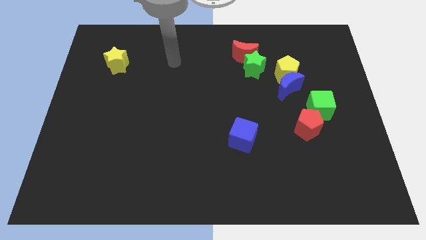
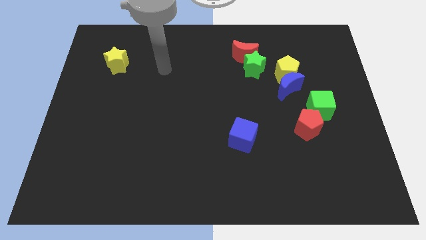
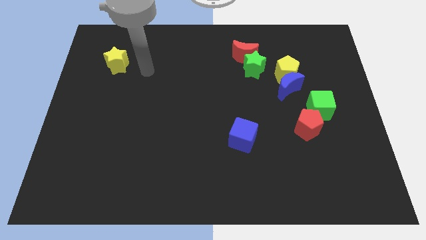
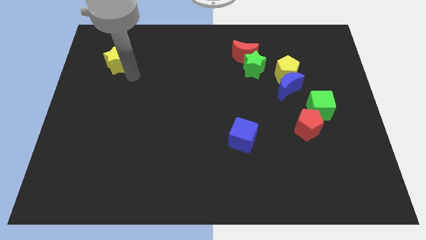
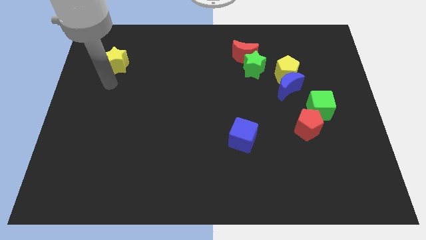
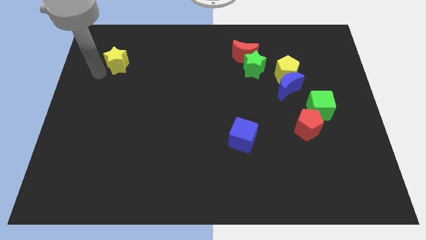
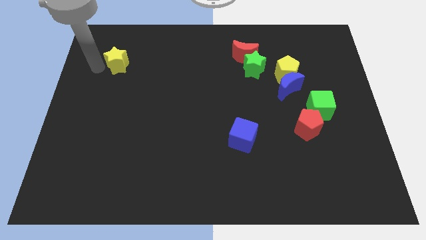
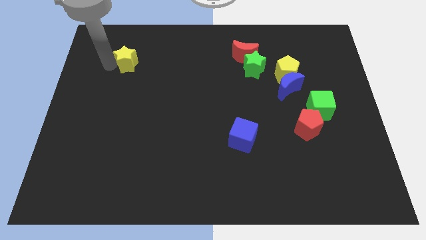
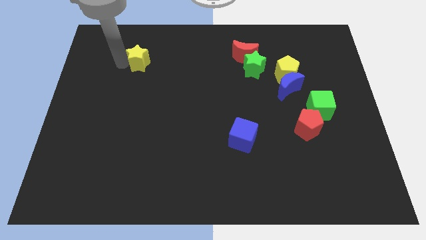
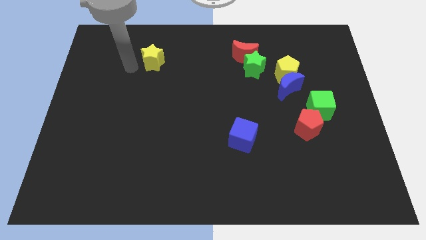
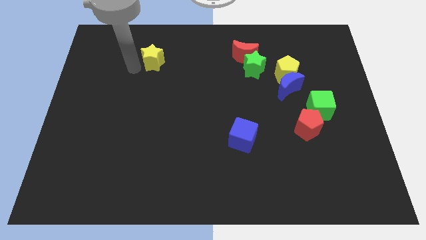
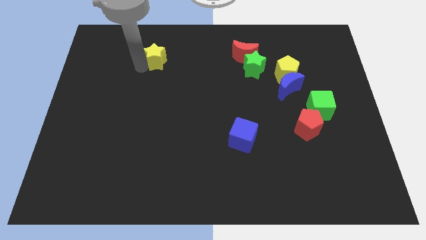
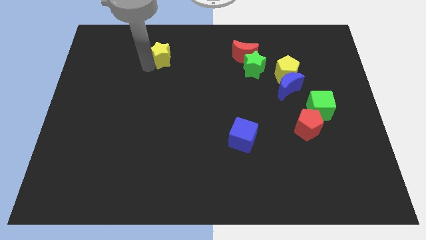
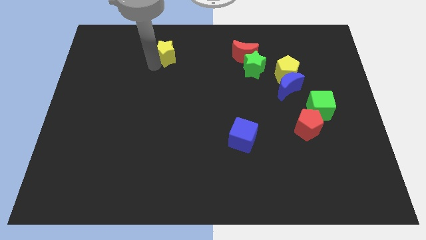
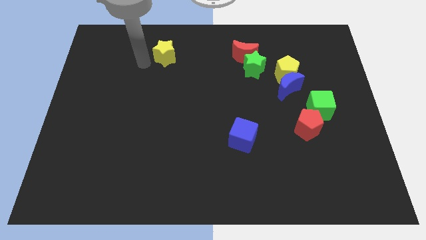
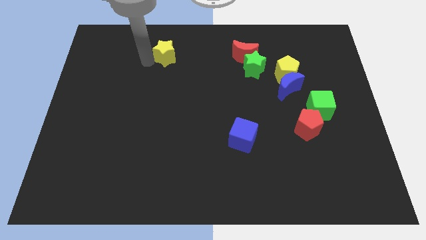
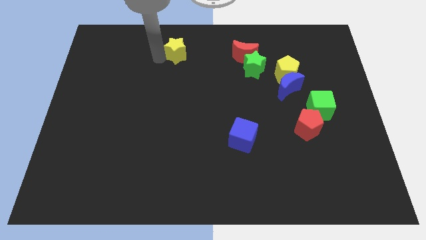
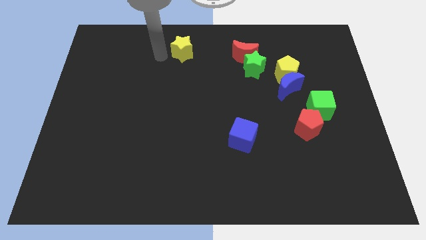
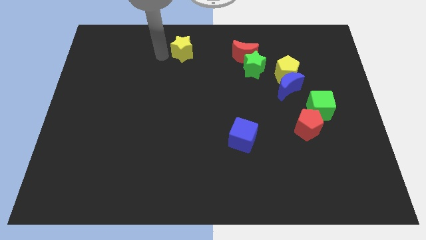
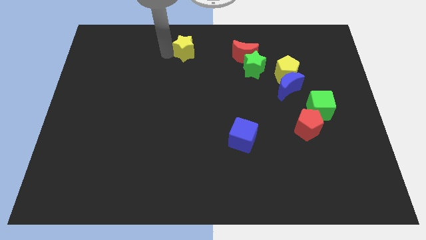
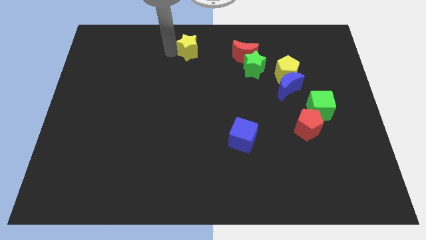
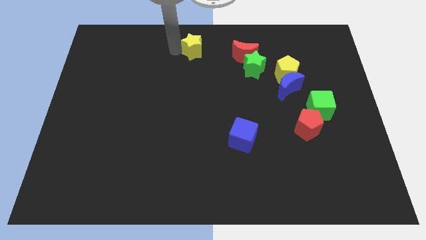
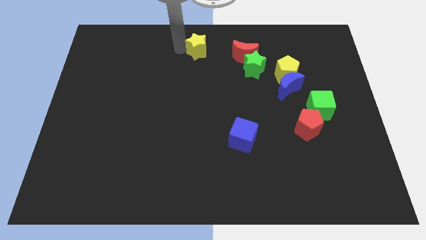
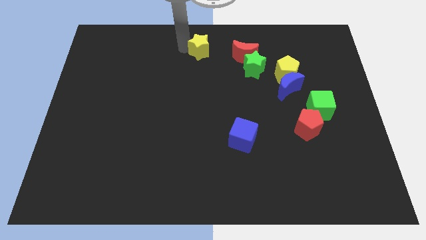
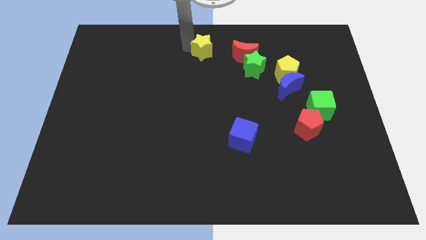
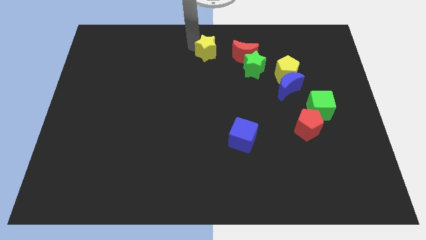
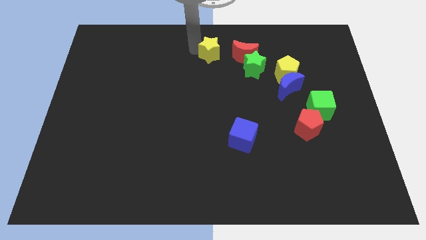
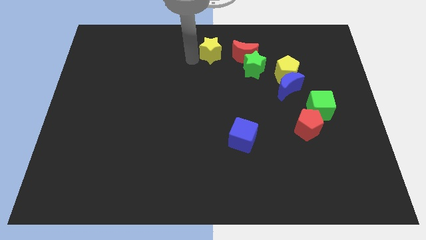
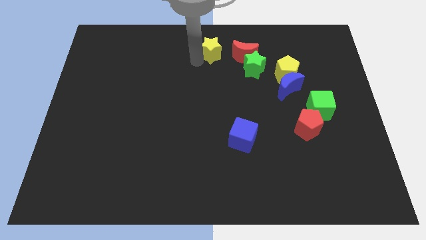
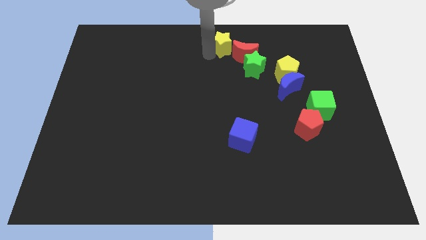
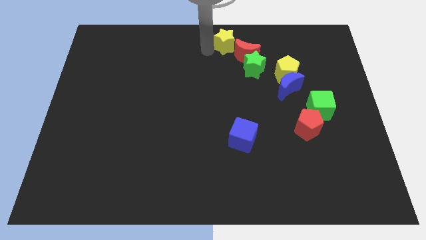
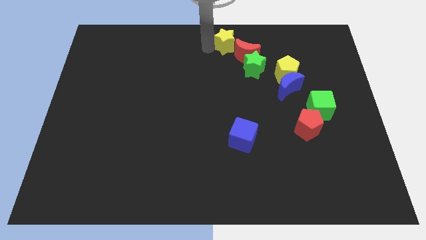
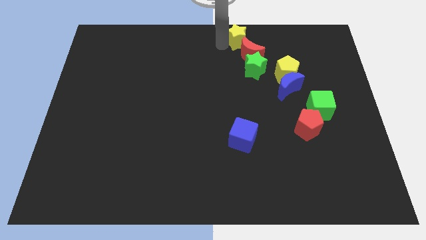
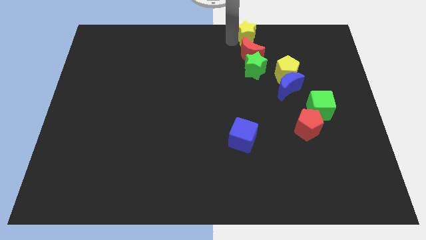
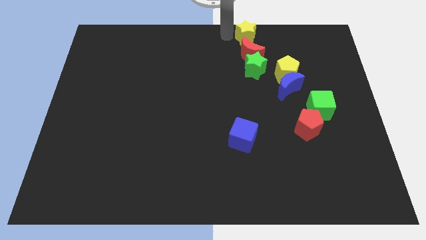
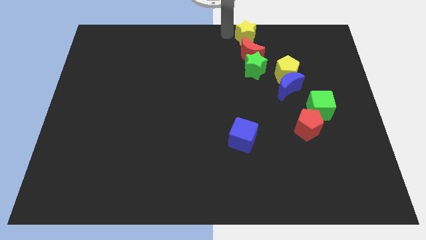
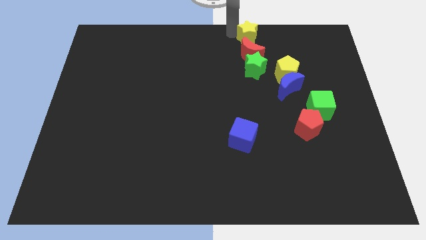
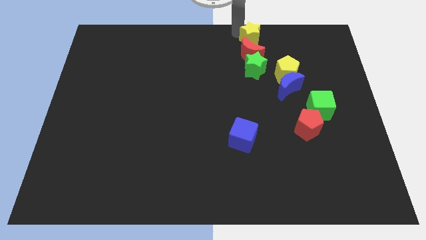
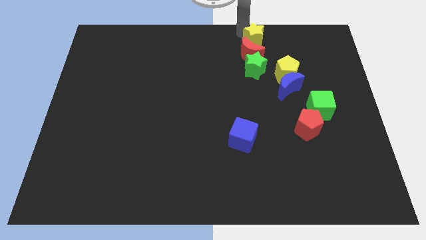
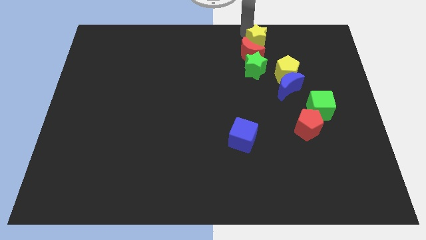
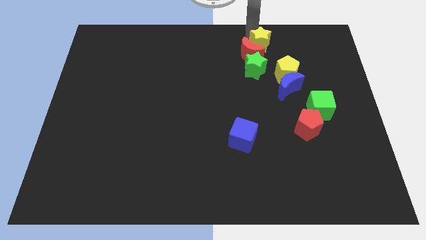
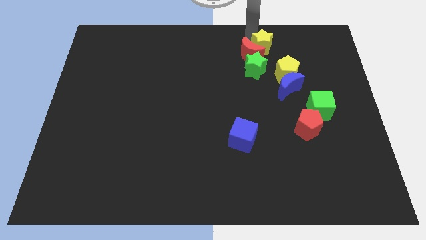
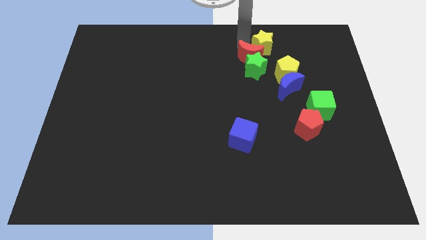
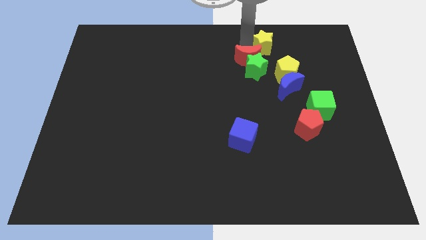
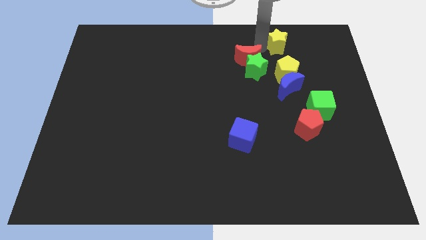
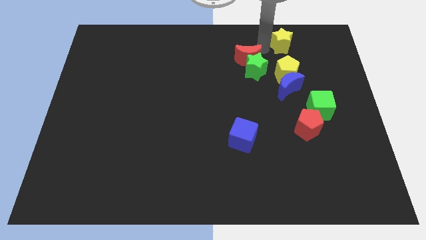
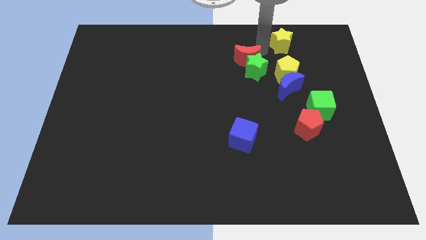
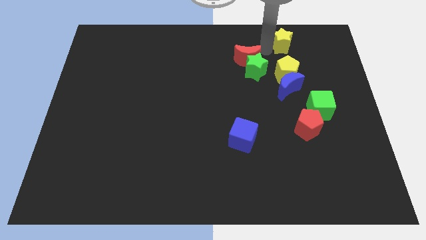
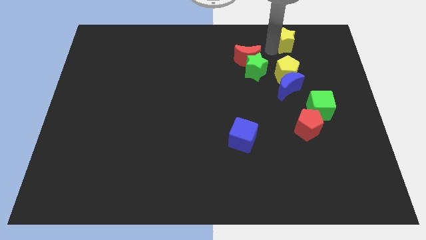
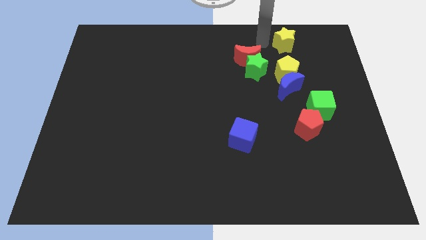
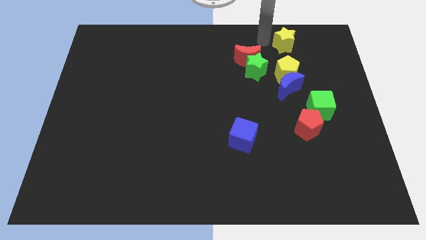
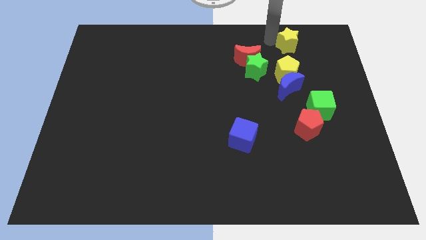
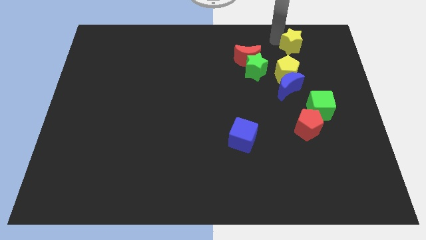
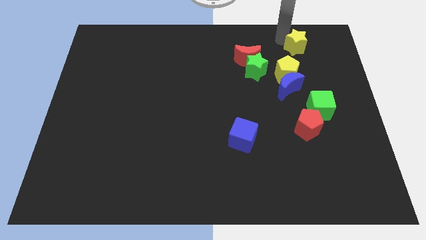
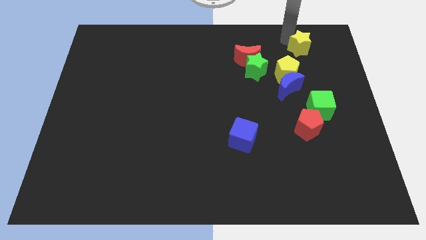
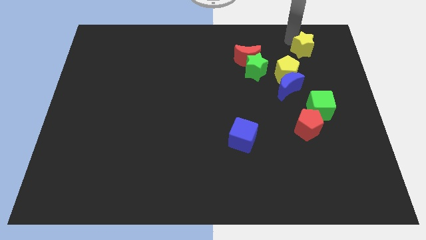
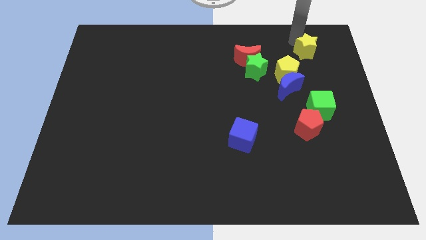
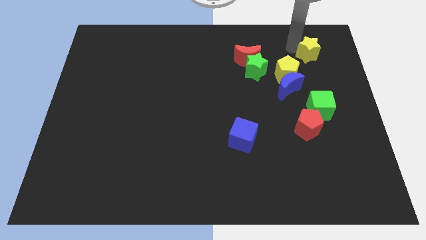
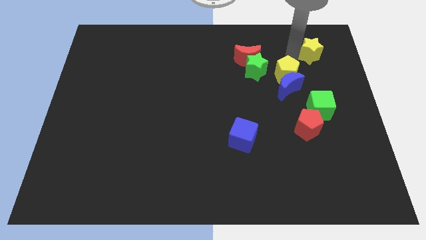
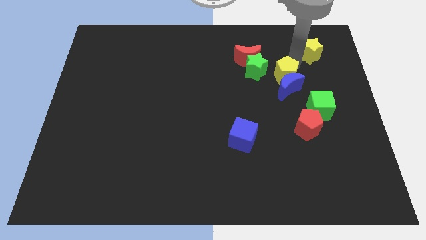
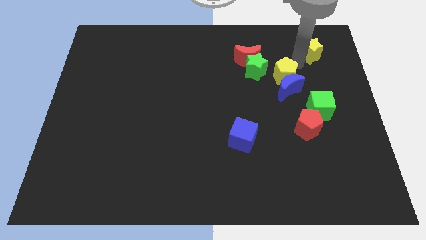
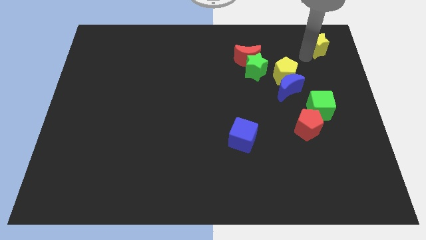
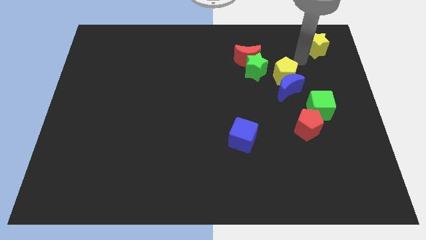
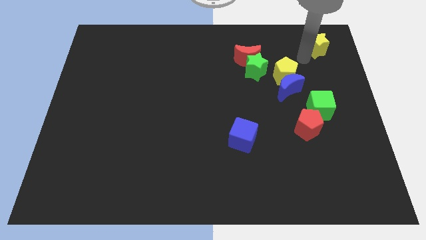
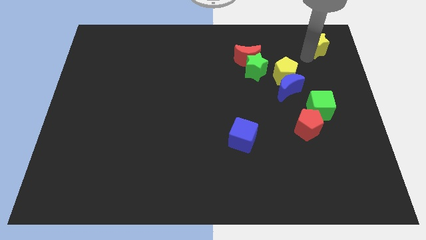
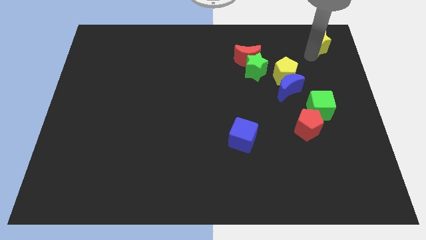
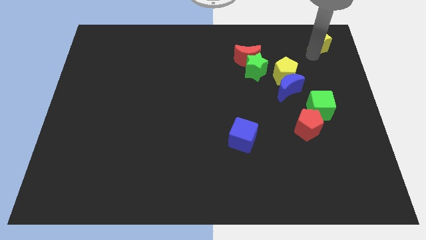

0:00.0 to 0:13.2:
move the yellow star to the upper right corner

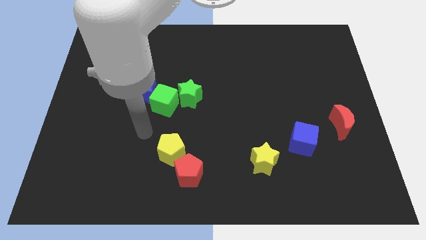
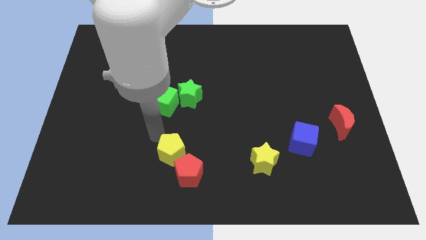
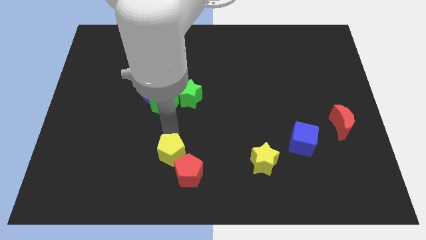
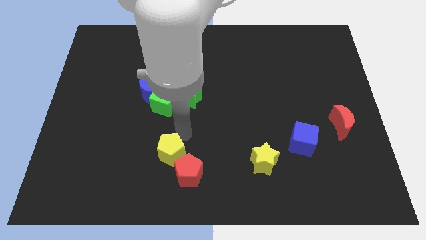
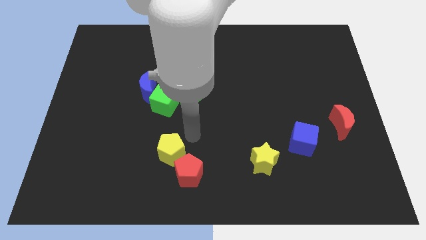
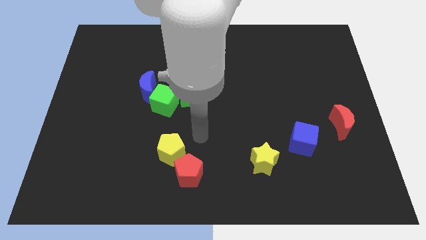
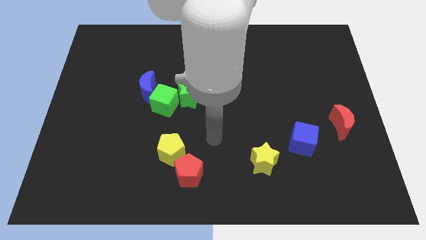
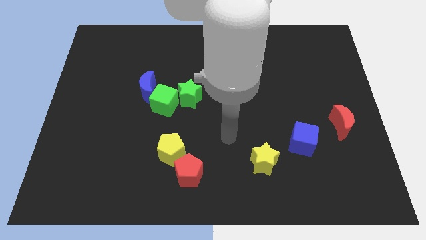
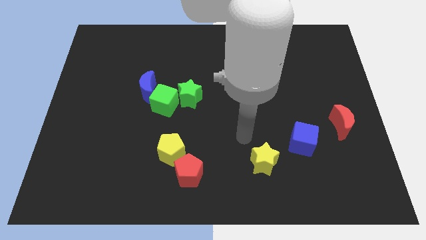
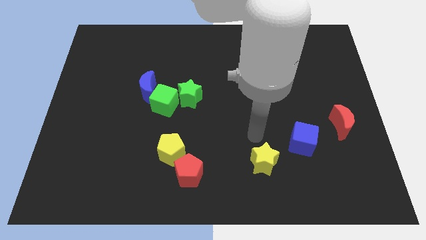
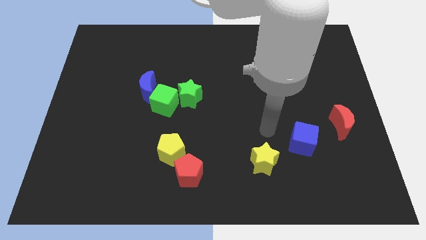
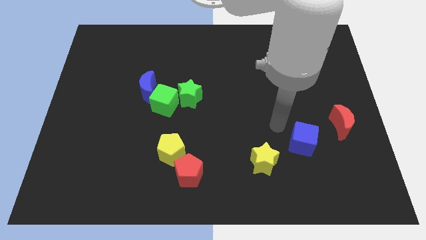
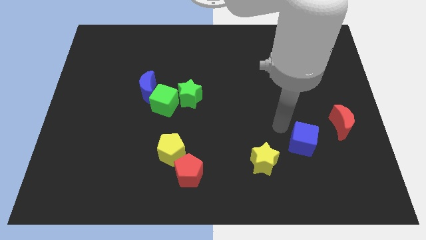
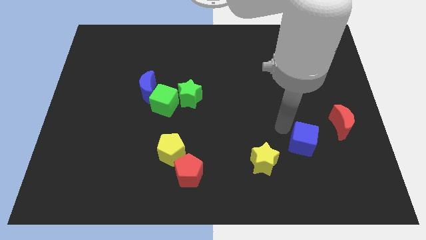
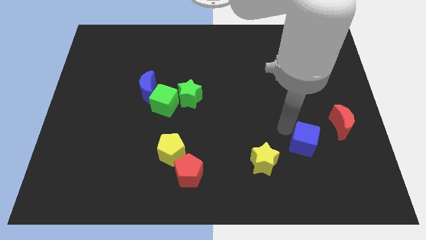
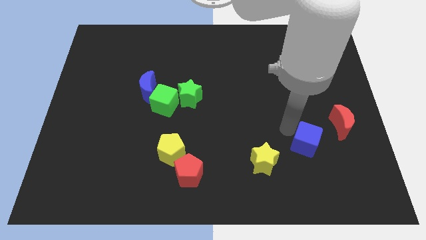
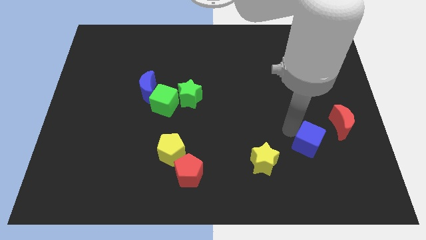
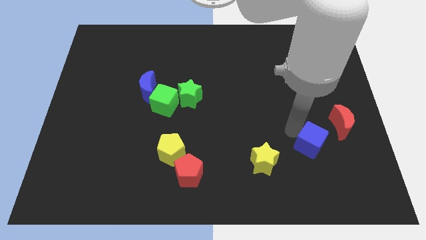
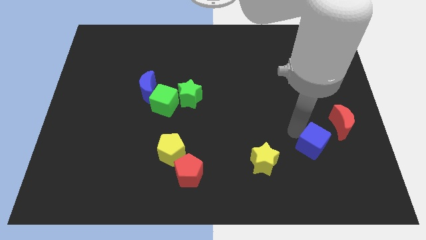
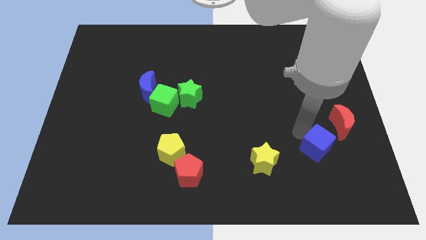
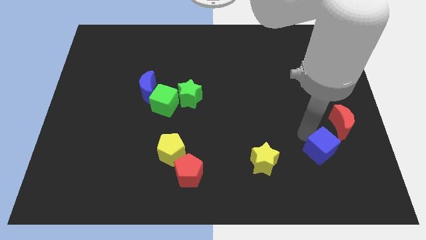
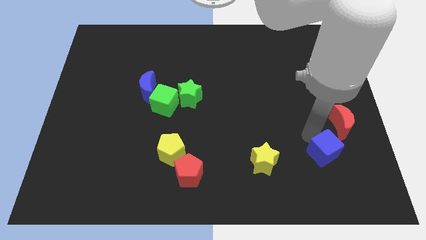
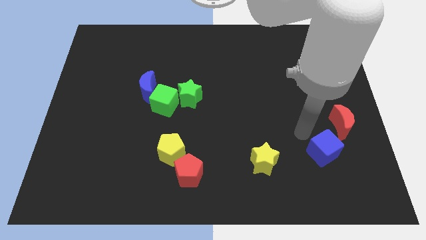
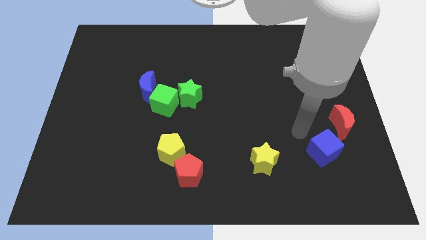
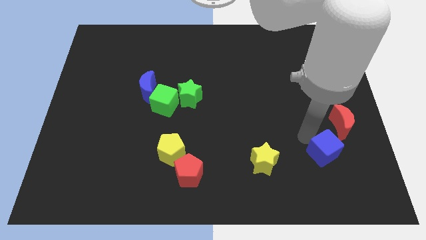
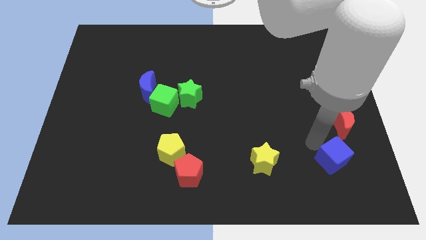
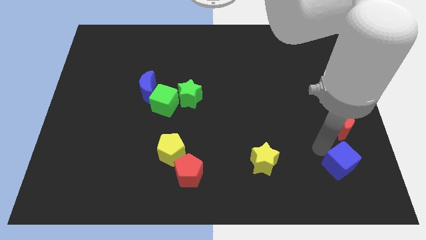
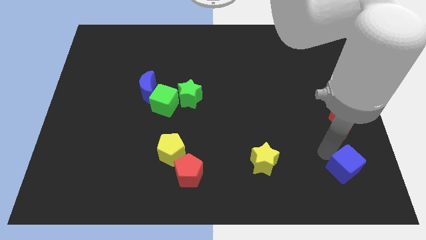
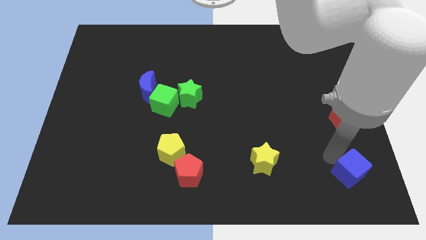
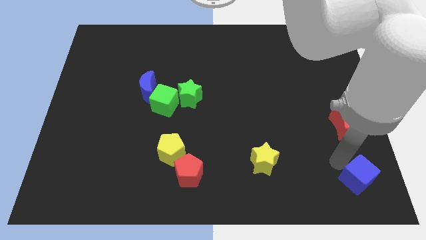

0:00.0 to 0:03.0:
put the blue cube to the bottom right of the board
